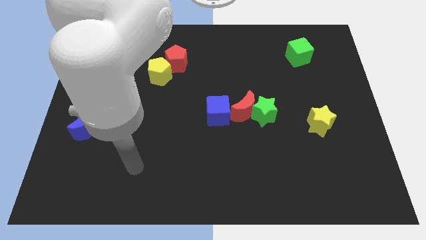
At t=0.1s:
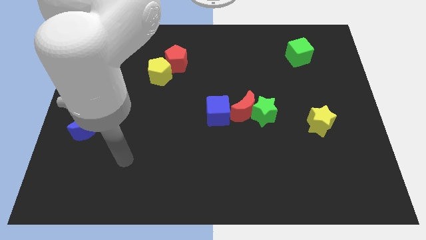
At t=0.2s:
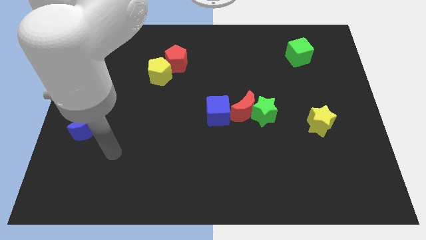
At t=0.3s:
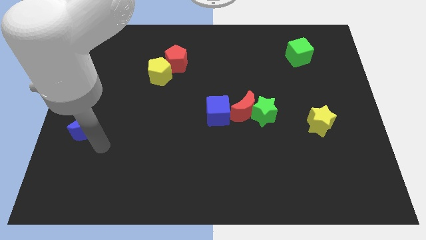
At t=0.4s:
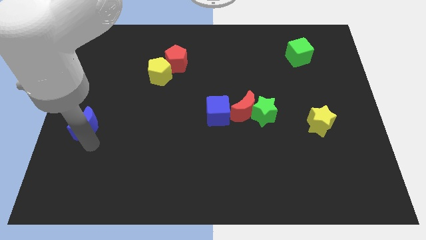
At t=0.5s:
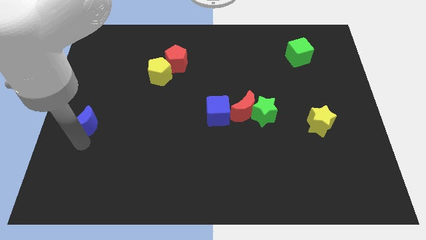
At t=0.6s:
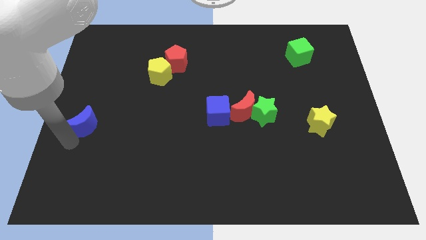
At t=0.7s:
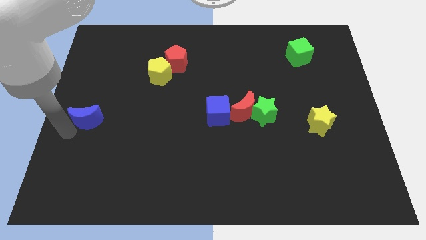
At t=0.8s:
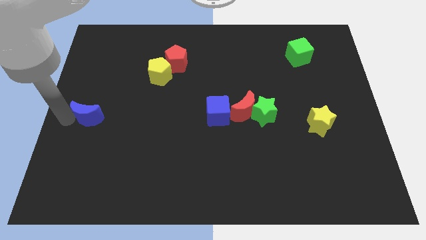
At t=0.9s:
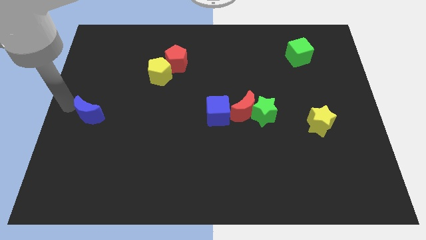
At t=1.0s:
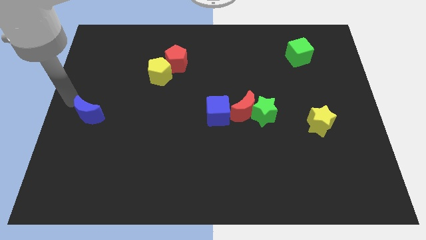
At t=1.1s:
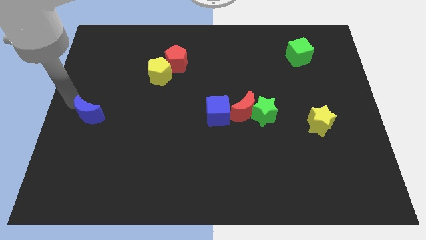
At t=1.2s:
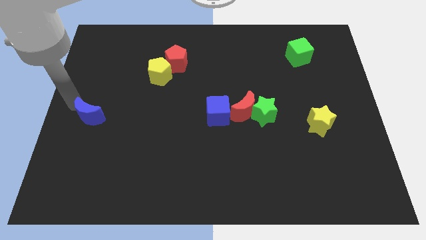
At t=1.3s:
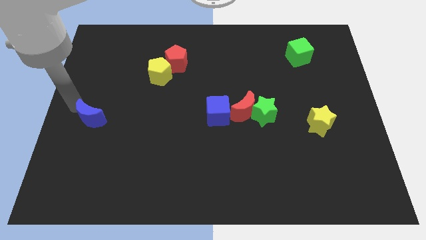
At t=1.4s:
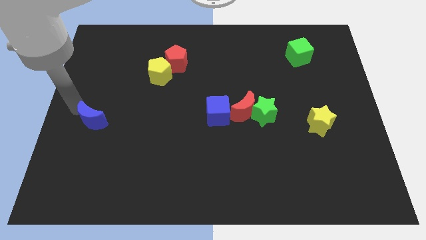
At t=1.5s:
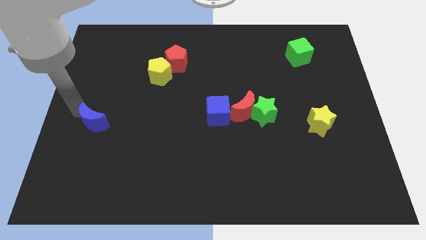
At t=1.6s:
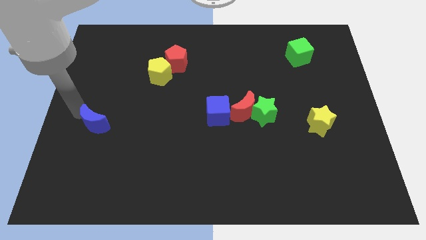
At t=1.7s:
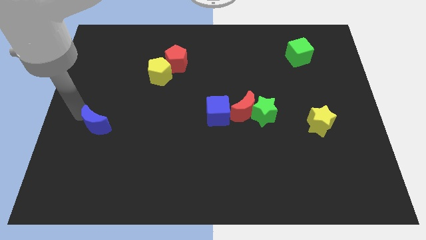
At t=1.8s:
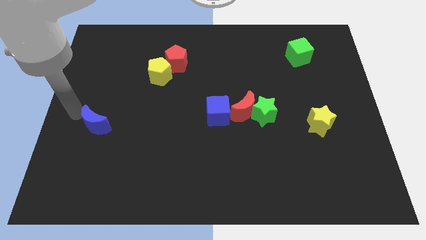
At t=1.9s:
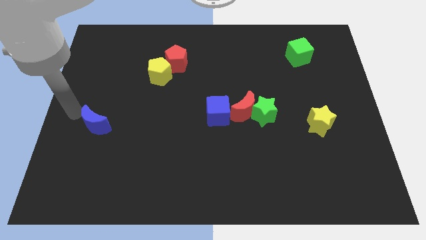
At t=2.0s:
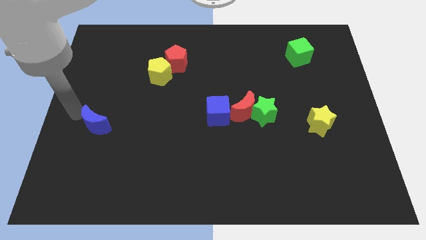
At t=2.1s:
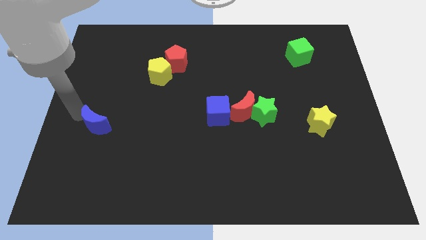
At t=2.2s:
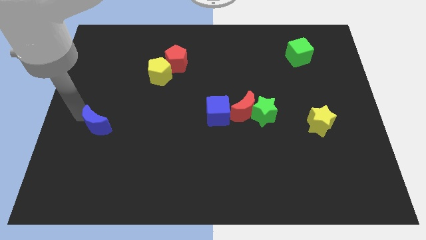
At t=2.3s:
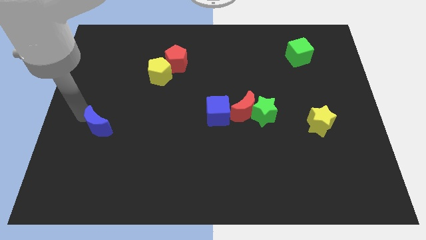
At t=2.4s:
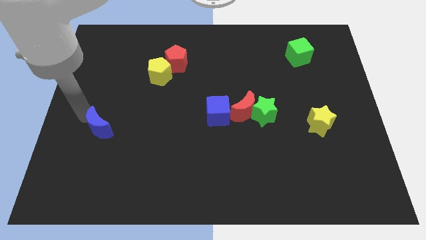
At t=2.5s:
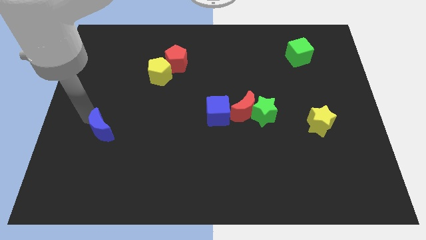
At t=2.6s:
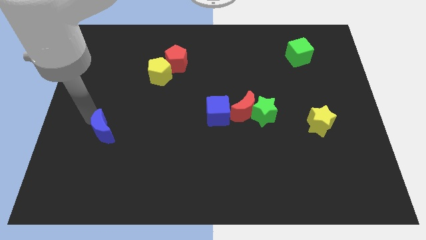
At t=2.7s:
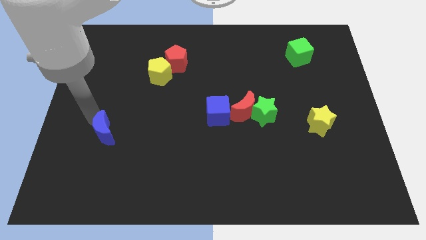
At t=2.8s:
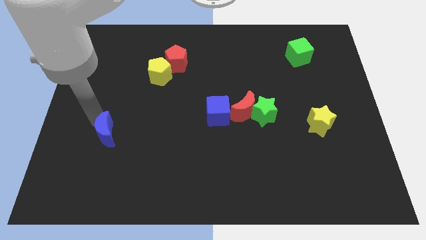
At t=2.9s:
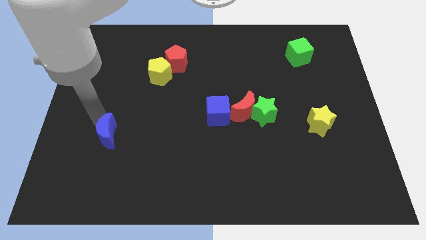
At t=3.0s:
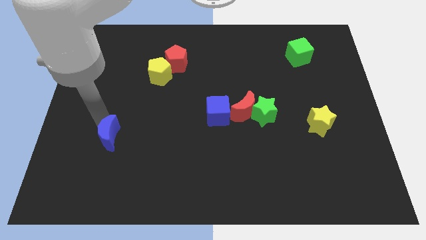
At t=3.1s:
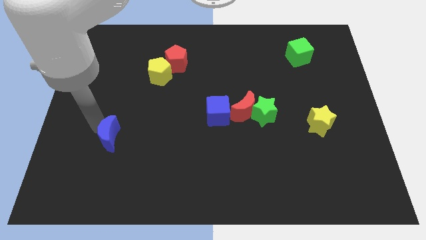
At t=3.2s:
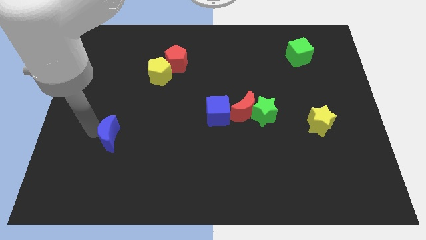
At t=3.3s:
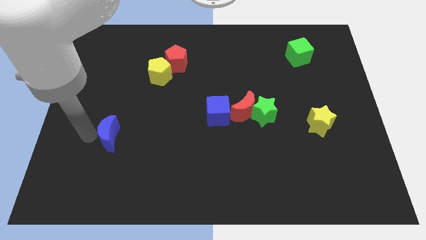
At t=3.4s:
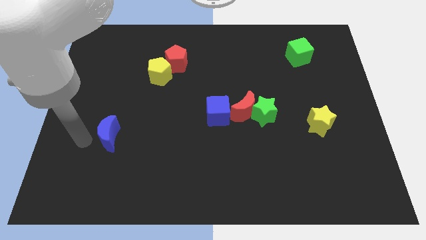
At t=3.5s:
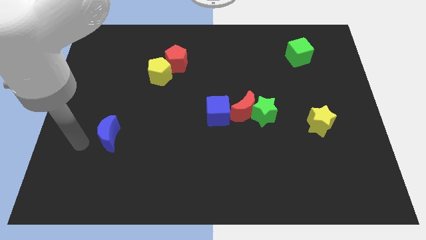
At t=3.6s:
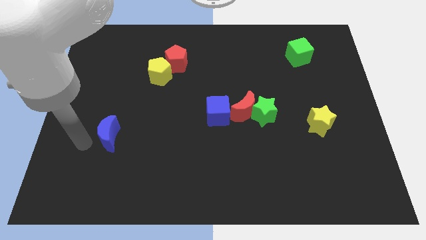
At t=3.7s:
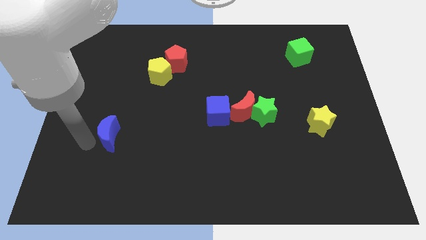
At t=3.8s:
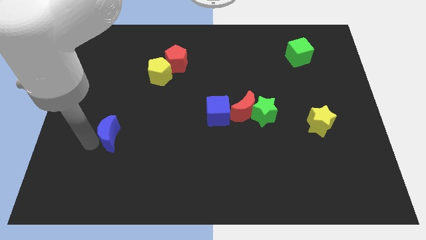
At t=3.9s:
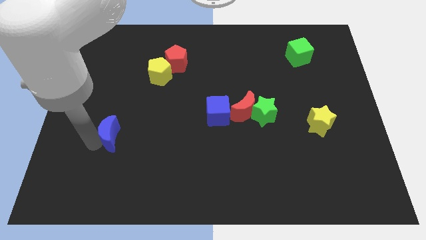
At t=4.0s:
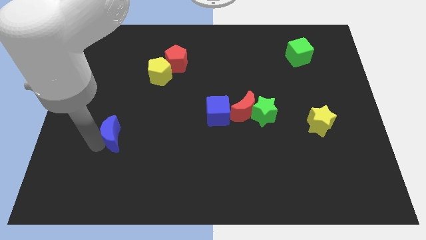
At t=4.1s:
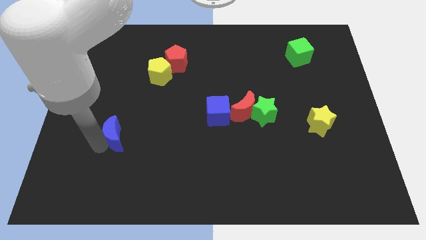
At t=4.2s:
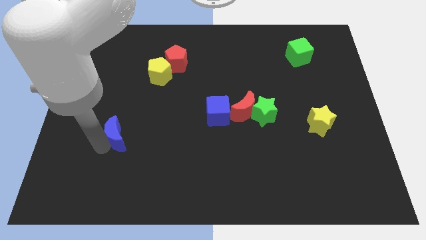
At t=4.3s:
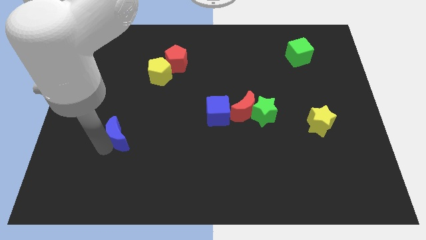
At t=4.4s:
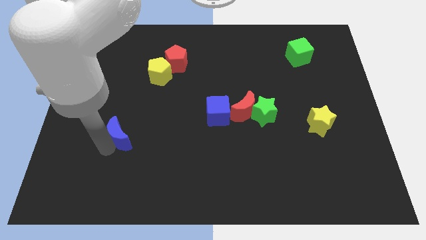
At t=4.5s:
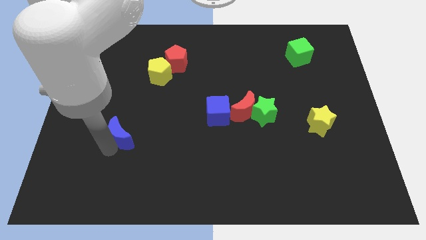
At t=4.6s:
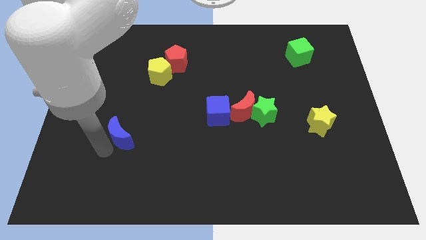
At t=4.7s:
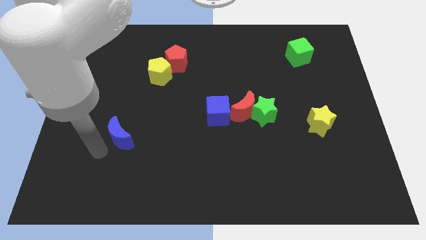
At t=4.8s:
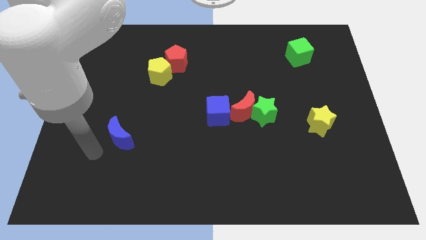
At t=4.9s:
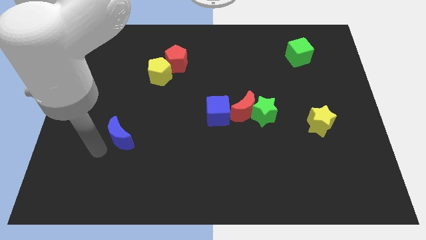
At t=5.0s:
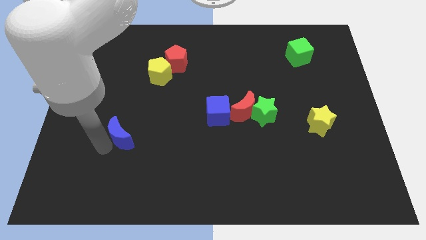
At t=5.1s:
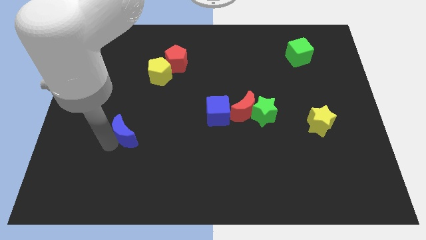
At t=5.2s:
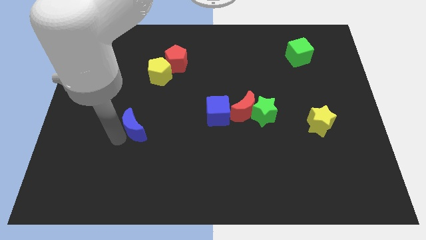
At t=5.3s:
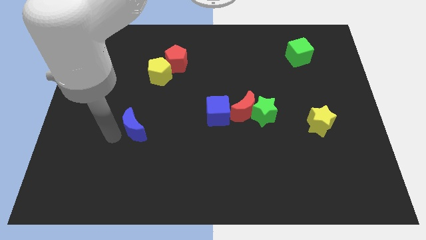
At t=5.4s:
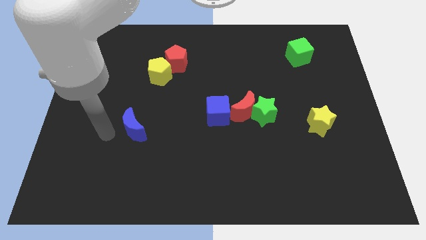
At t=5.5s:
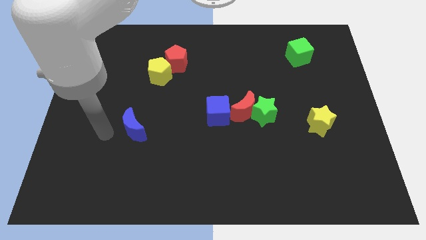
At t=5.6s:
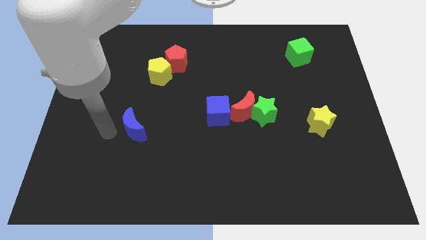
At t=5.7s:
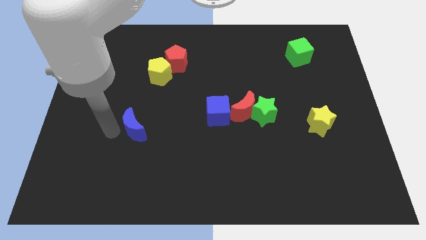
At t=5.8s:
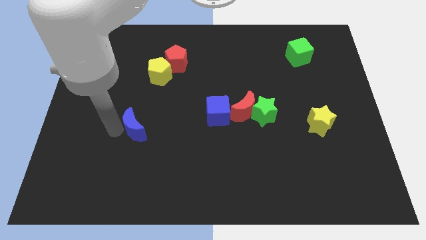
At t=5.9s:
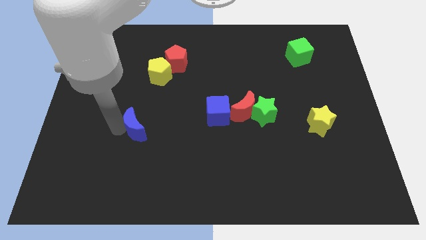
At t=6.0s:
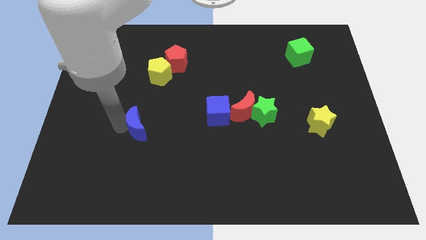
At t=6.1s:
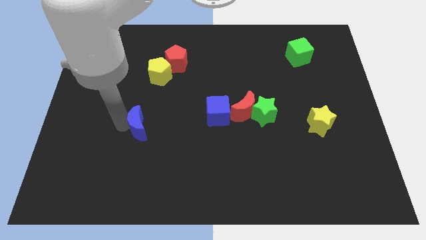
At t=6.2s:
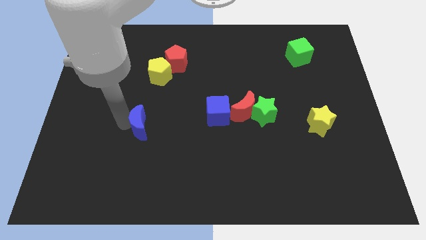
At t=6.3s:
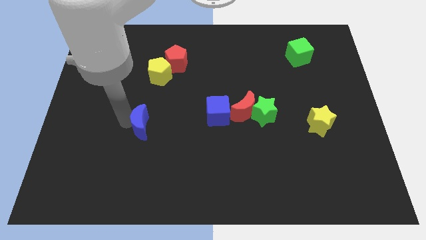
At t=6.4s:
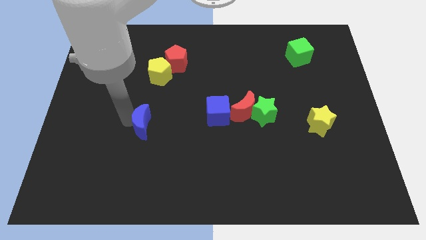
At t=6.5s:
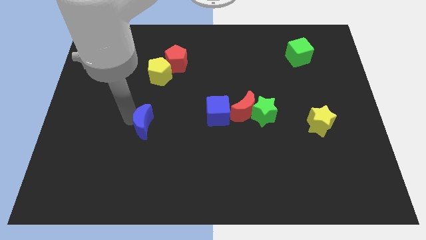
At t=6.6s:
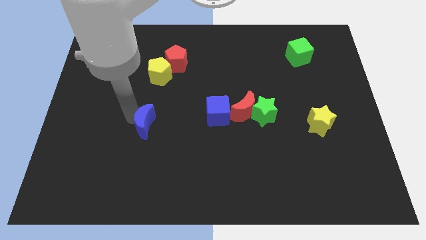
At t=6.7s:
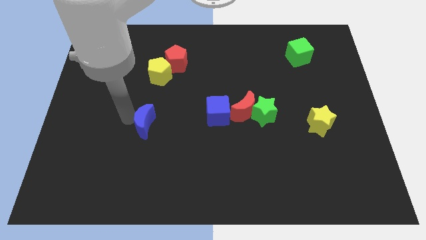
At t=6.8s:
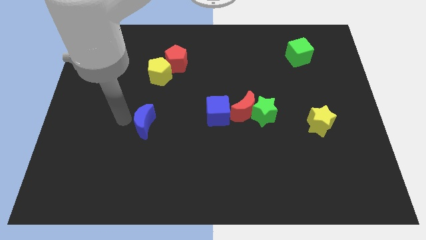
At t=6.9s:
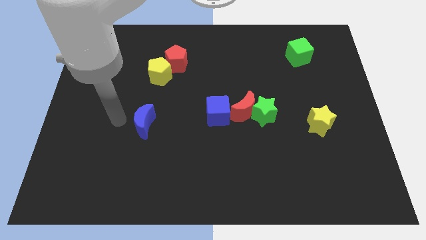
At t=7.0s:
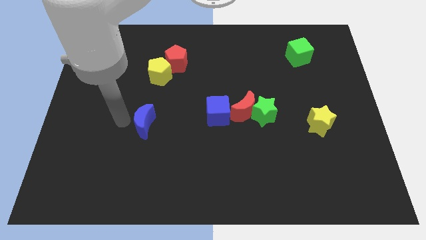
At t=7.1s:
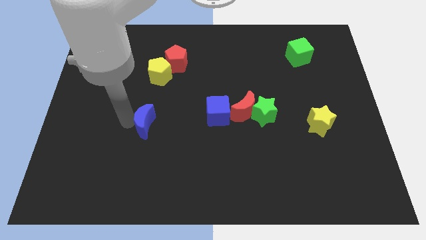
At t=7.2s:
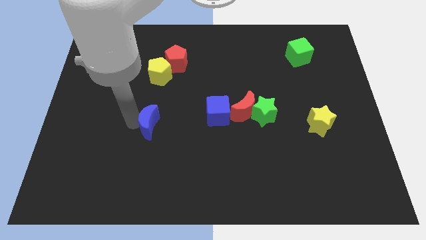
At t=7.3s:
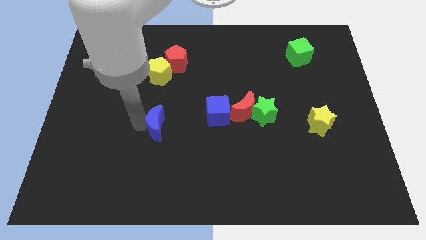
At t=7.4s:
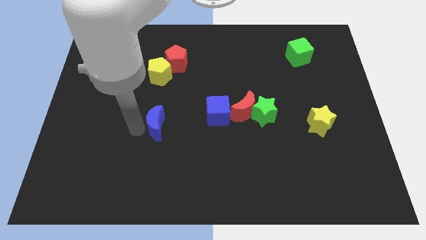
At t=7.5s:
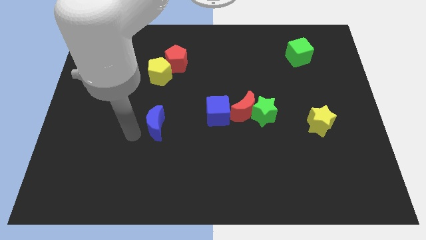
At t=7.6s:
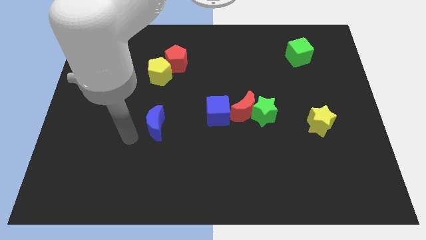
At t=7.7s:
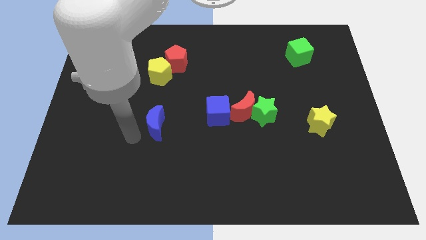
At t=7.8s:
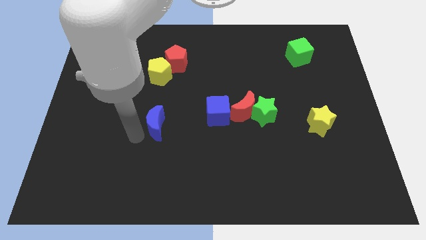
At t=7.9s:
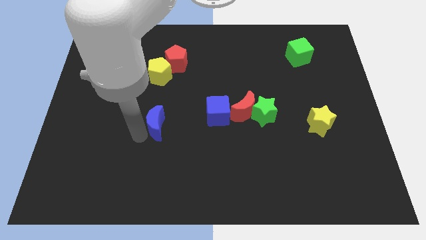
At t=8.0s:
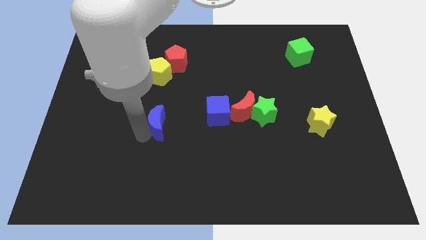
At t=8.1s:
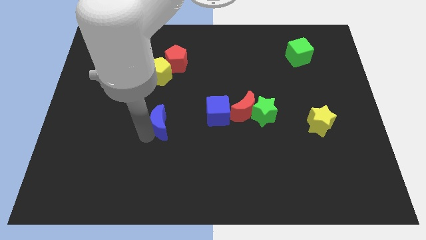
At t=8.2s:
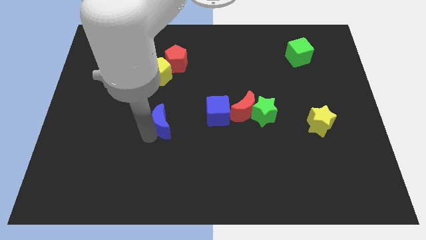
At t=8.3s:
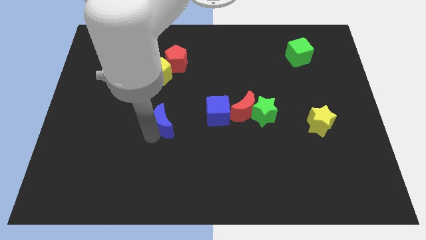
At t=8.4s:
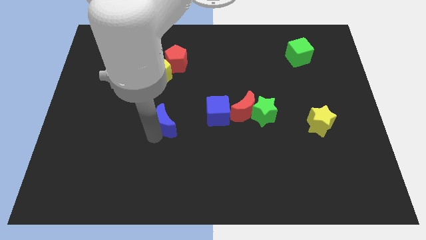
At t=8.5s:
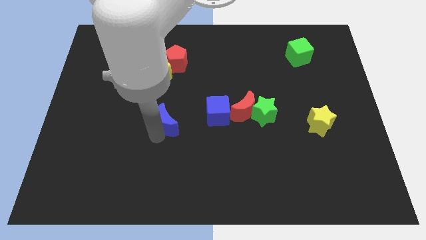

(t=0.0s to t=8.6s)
slide the blue moon to the center
